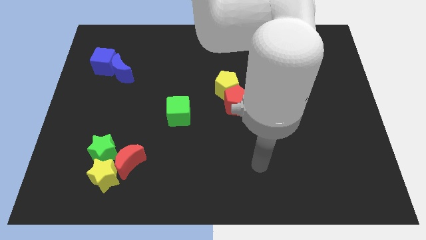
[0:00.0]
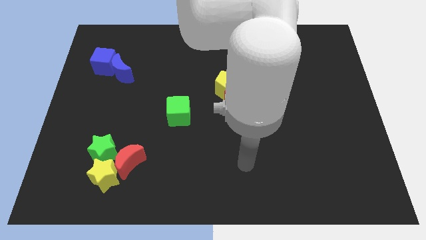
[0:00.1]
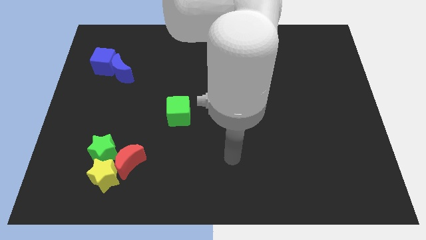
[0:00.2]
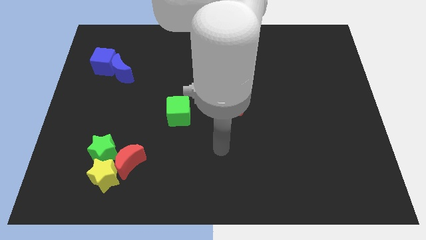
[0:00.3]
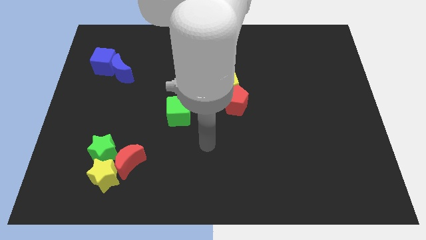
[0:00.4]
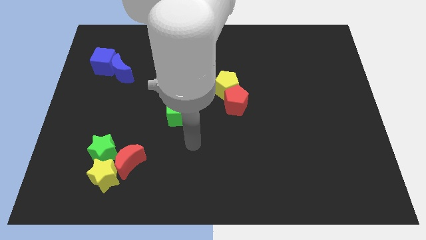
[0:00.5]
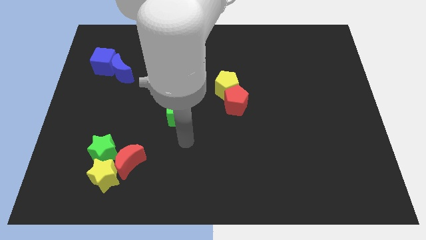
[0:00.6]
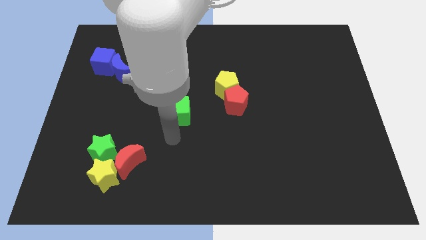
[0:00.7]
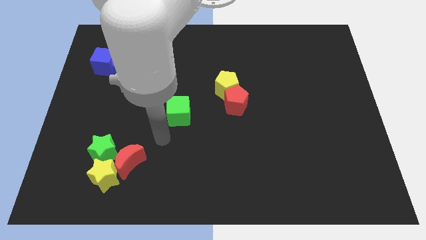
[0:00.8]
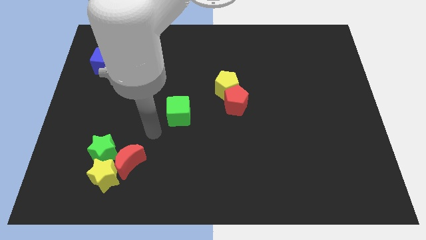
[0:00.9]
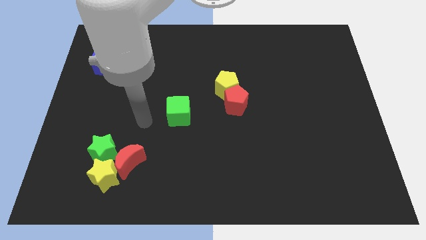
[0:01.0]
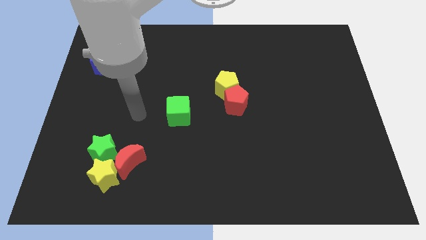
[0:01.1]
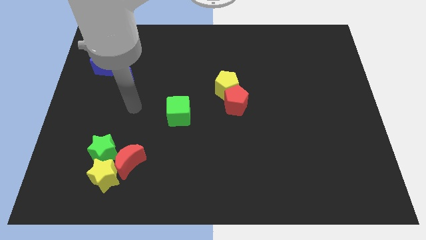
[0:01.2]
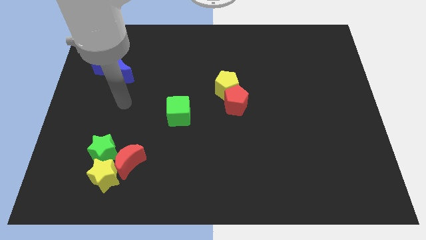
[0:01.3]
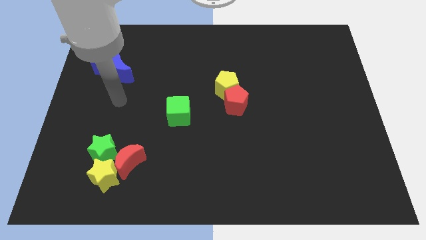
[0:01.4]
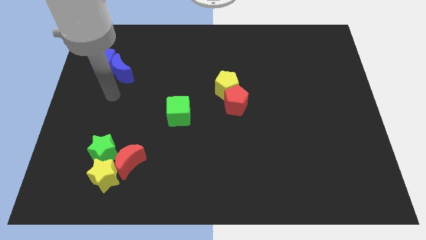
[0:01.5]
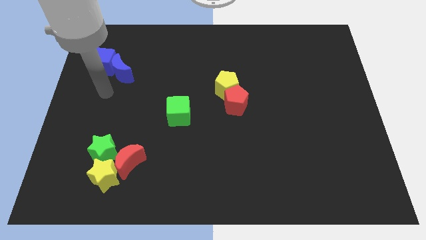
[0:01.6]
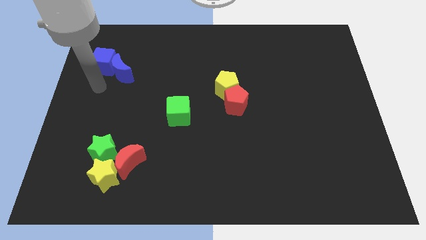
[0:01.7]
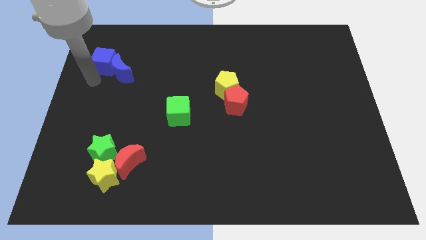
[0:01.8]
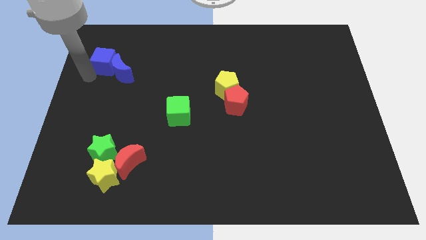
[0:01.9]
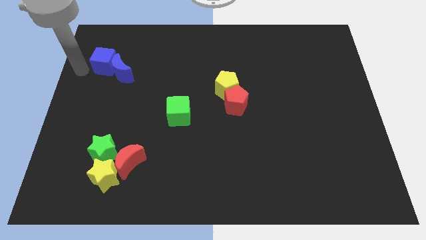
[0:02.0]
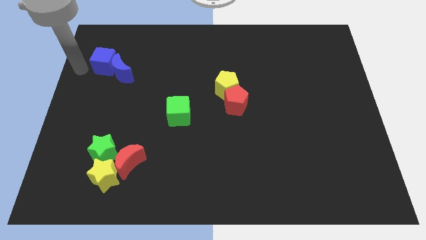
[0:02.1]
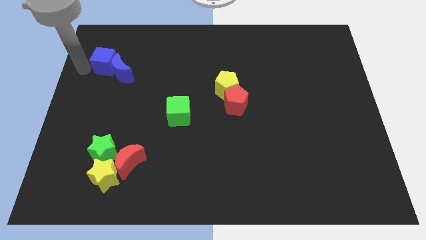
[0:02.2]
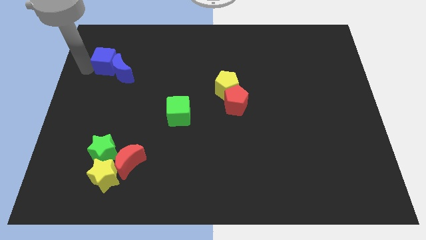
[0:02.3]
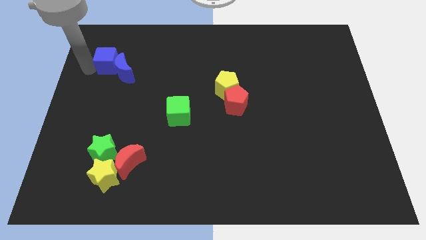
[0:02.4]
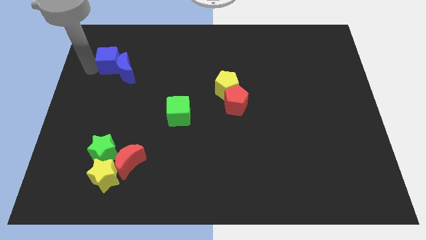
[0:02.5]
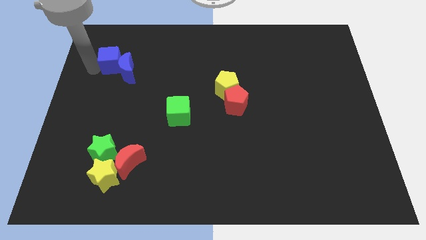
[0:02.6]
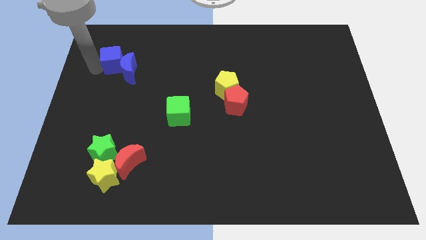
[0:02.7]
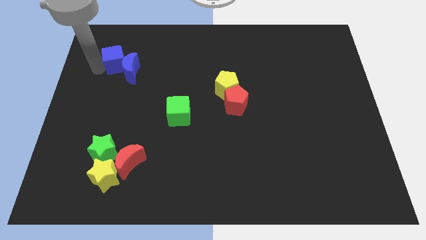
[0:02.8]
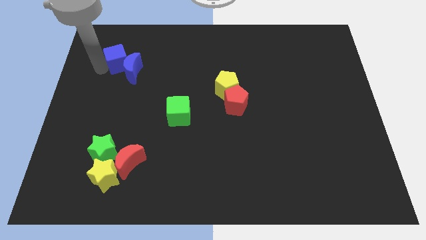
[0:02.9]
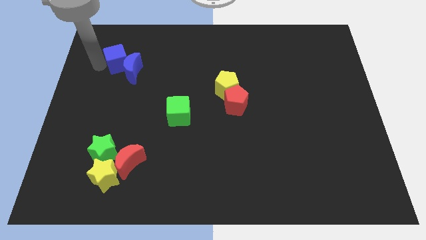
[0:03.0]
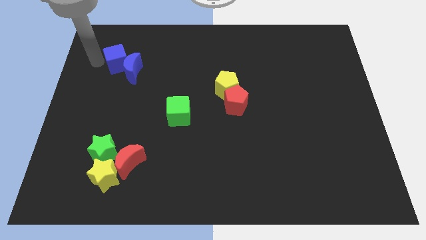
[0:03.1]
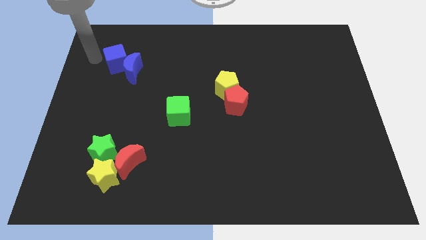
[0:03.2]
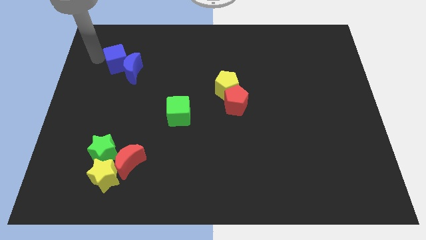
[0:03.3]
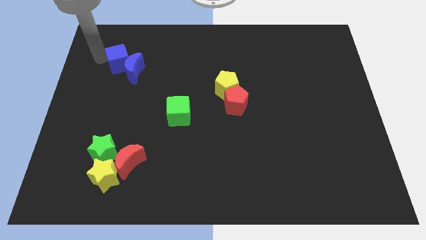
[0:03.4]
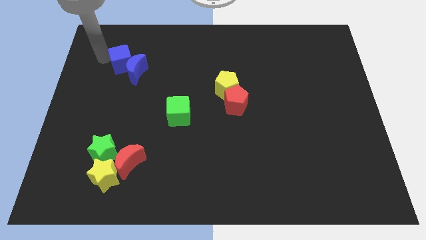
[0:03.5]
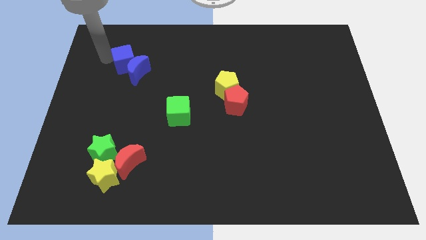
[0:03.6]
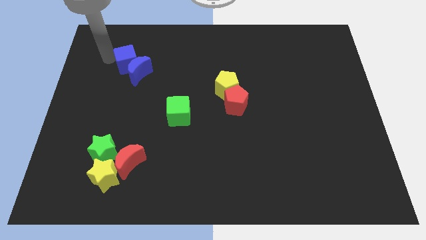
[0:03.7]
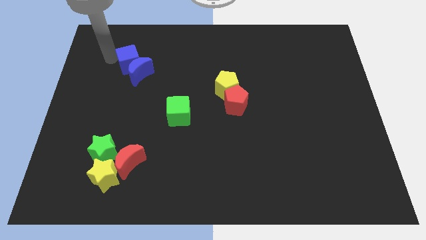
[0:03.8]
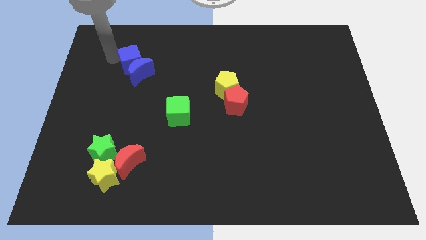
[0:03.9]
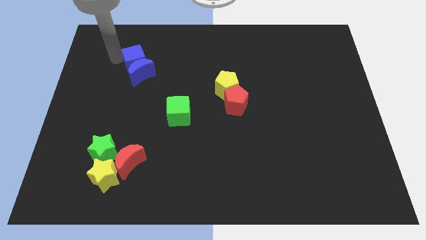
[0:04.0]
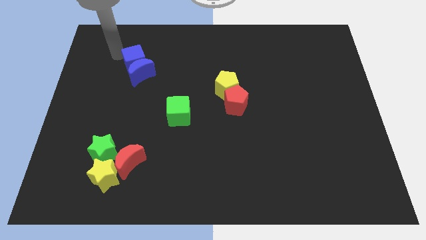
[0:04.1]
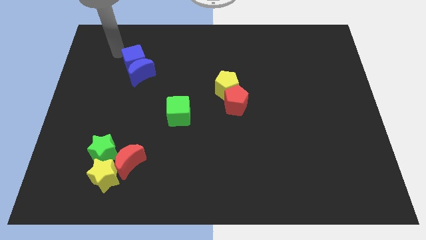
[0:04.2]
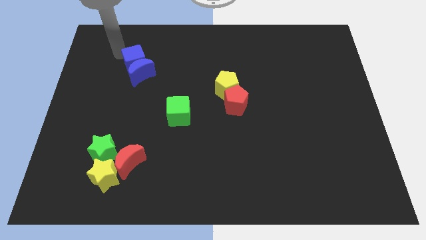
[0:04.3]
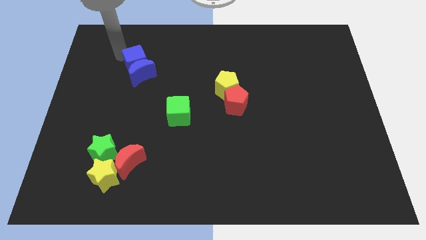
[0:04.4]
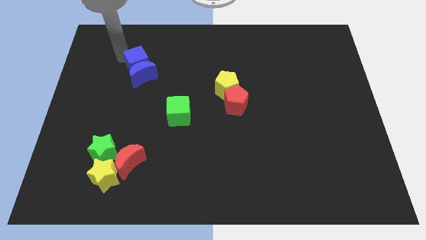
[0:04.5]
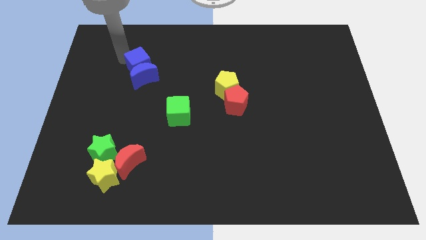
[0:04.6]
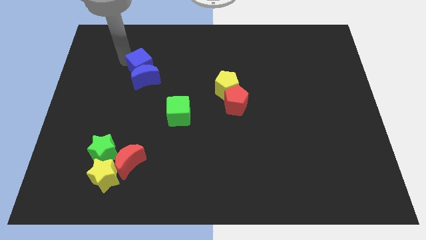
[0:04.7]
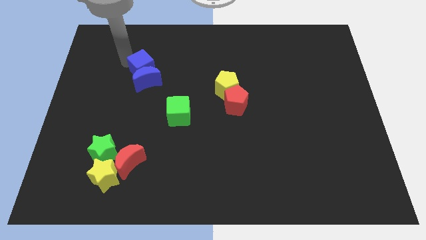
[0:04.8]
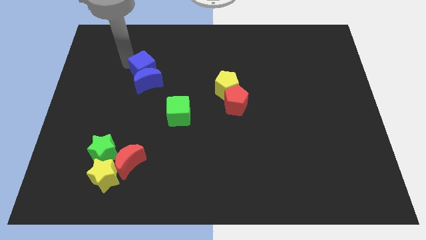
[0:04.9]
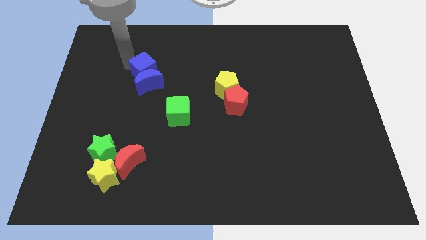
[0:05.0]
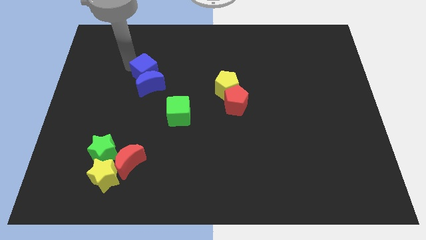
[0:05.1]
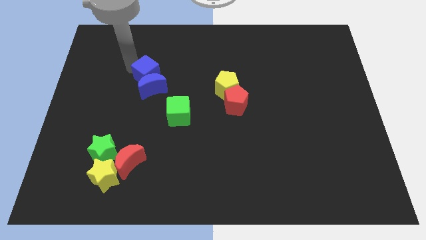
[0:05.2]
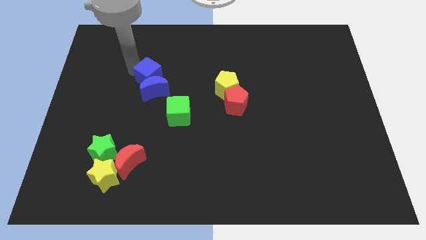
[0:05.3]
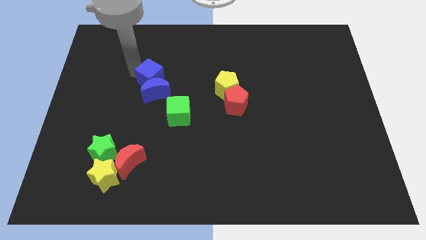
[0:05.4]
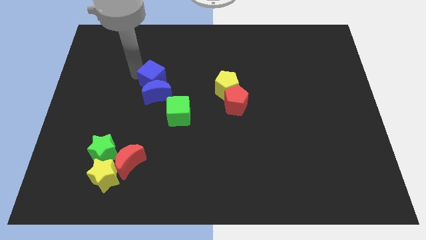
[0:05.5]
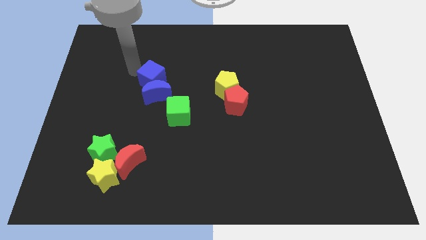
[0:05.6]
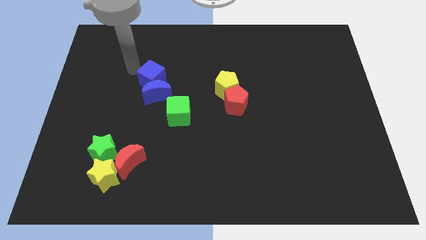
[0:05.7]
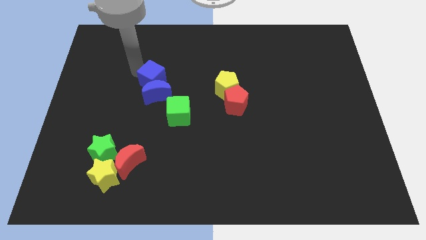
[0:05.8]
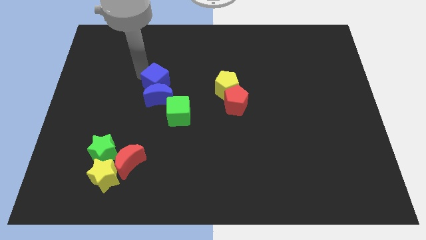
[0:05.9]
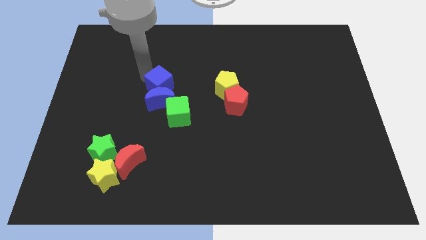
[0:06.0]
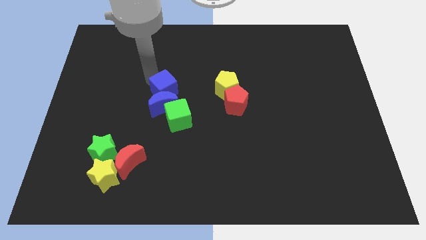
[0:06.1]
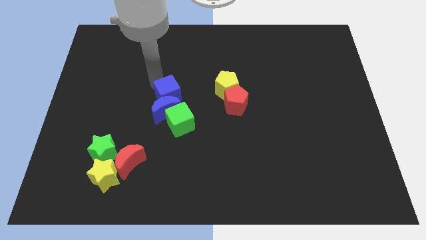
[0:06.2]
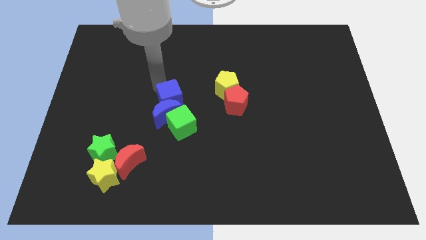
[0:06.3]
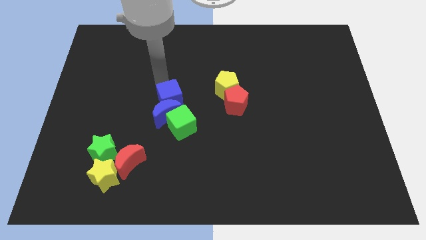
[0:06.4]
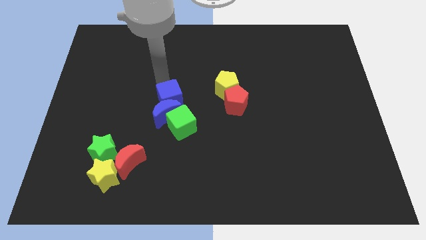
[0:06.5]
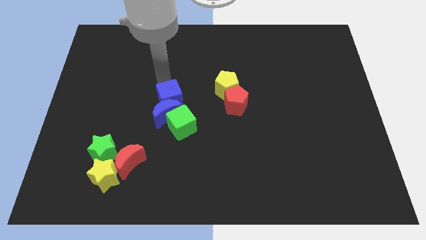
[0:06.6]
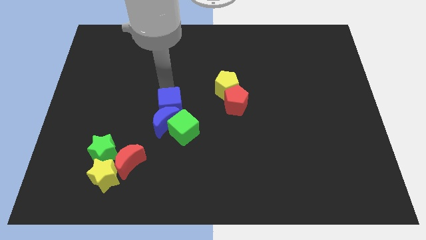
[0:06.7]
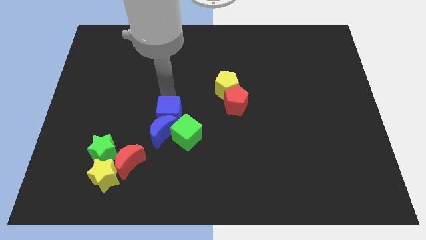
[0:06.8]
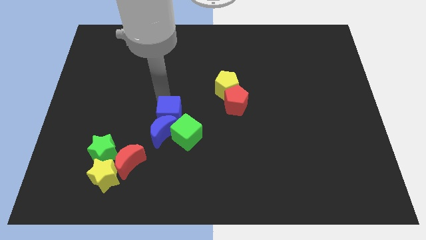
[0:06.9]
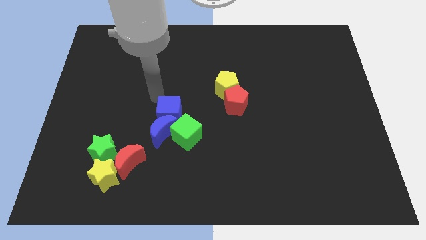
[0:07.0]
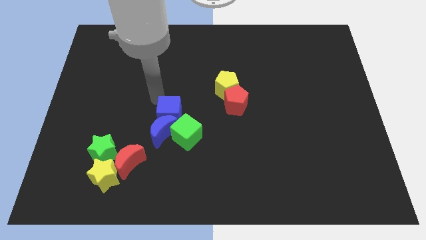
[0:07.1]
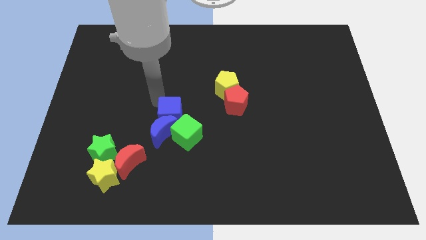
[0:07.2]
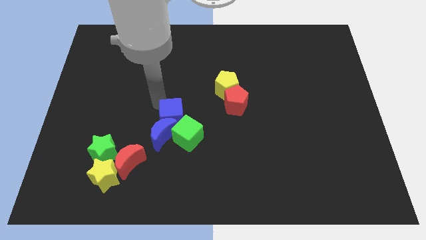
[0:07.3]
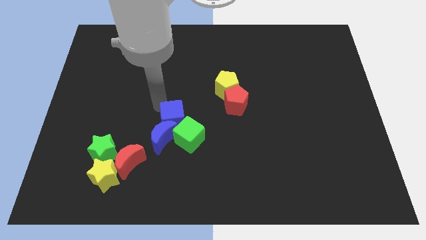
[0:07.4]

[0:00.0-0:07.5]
slide the blue cube towards the green cube
